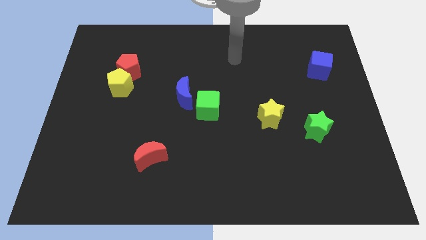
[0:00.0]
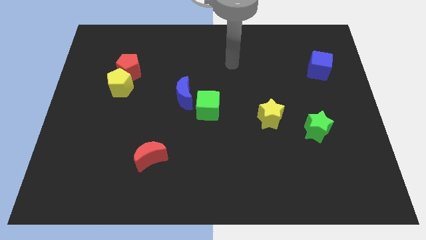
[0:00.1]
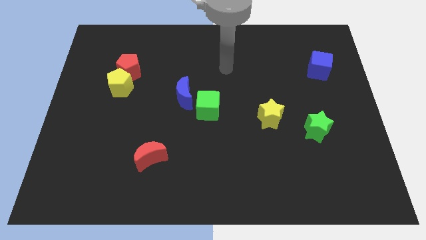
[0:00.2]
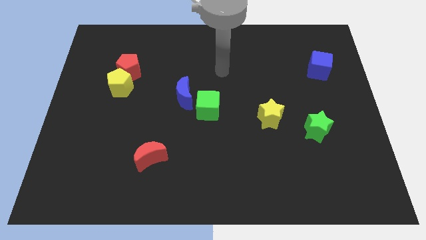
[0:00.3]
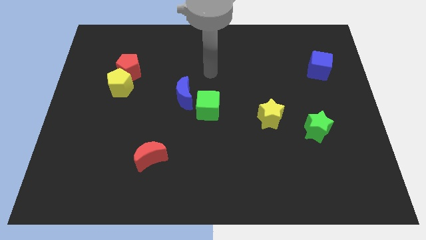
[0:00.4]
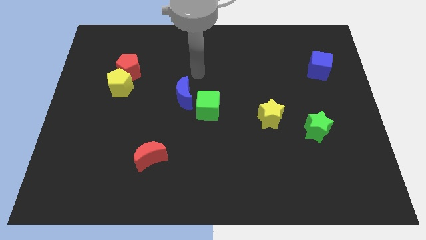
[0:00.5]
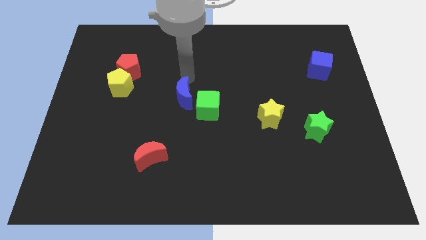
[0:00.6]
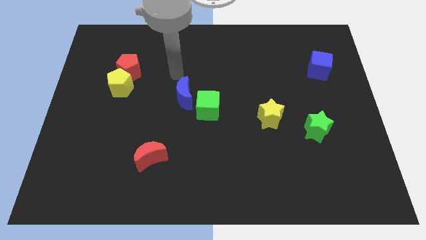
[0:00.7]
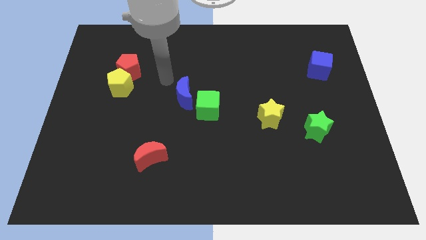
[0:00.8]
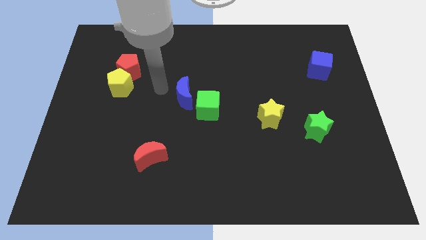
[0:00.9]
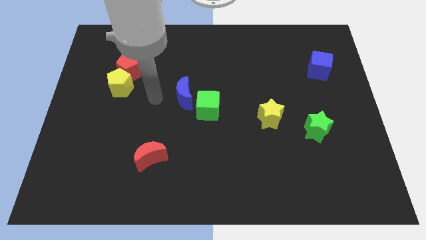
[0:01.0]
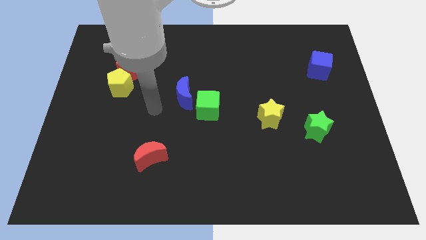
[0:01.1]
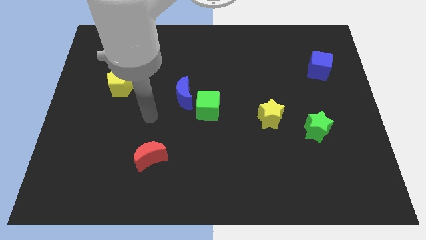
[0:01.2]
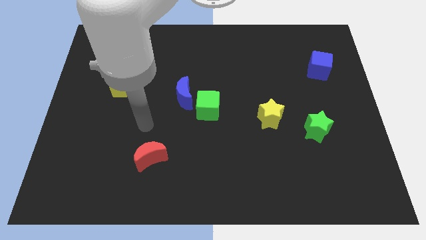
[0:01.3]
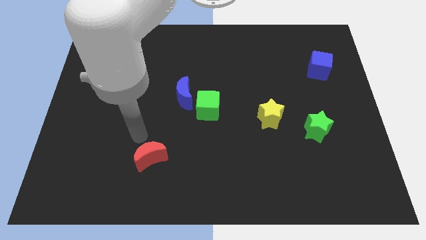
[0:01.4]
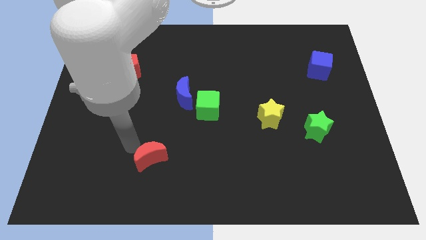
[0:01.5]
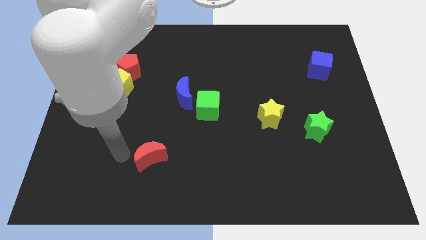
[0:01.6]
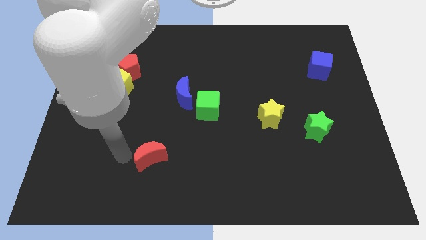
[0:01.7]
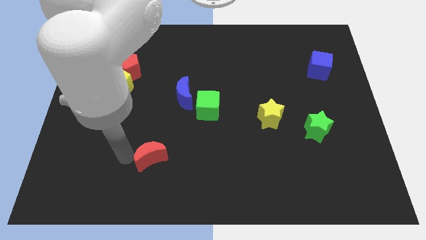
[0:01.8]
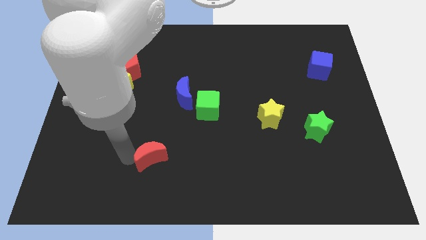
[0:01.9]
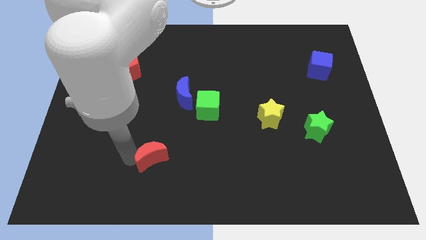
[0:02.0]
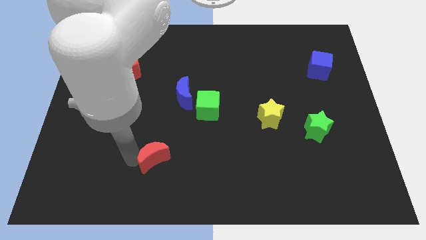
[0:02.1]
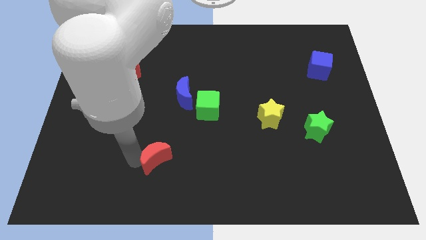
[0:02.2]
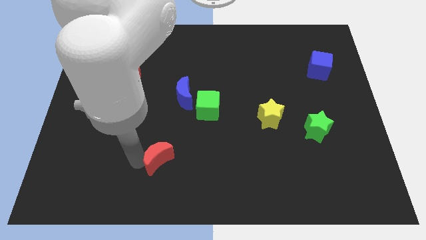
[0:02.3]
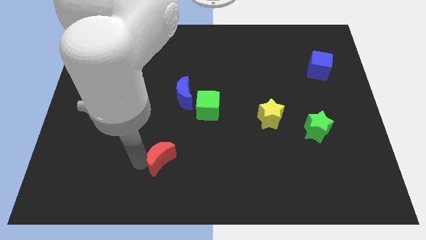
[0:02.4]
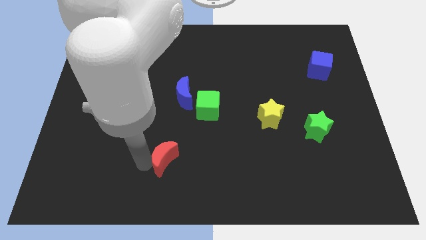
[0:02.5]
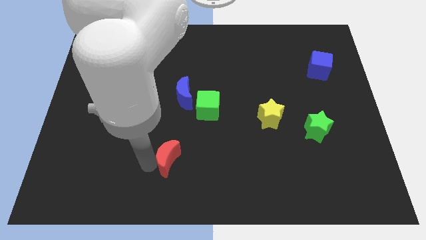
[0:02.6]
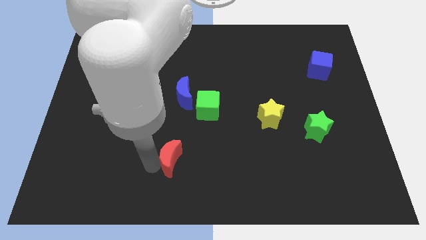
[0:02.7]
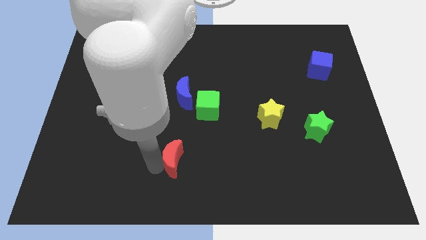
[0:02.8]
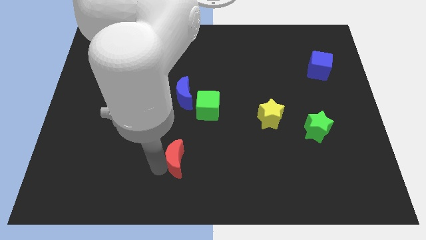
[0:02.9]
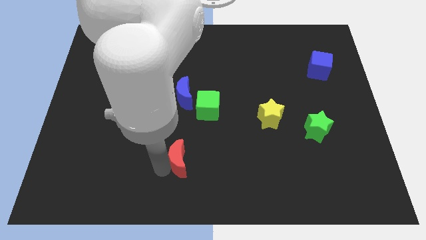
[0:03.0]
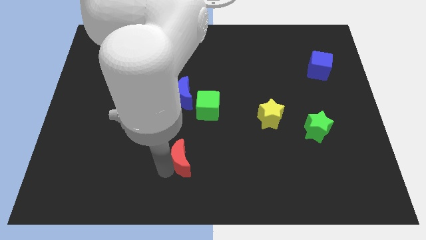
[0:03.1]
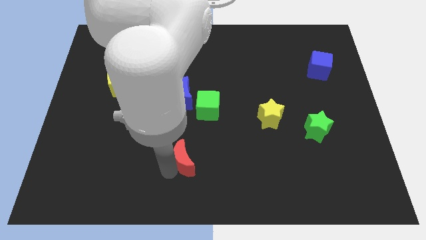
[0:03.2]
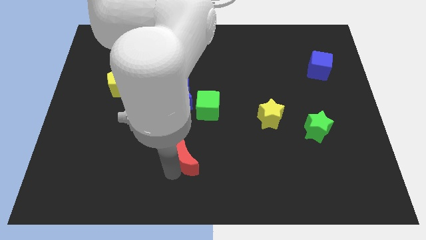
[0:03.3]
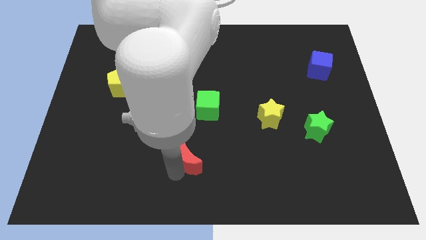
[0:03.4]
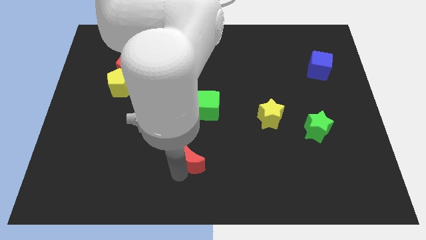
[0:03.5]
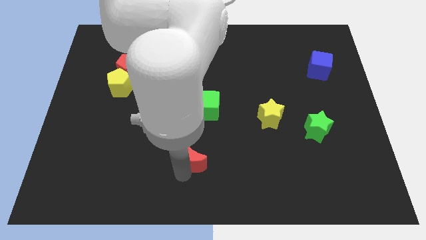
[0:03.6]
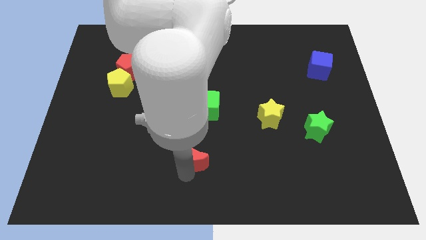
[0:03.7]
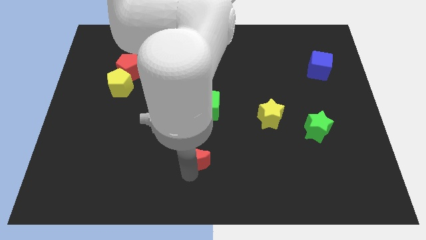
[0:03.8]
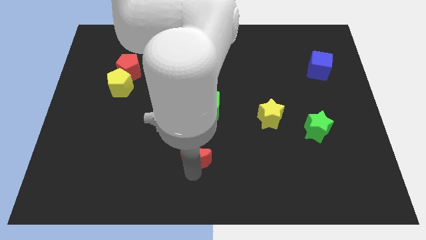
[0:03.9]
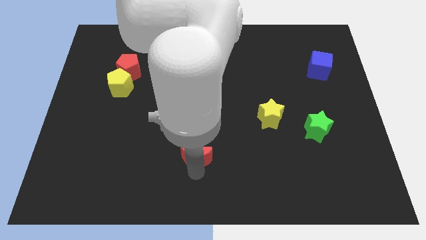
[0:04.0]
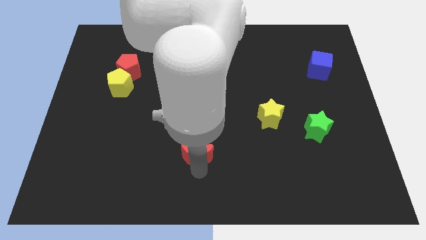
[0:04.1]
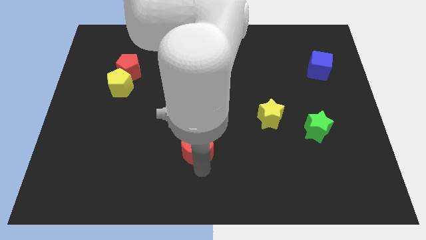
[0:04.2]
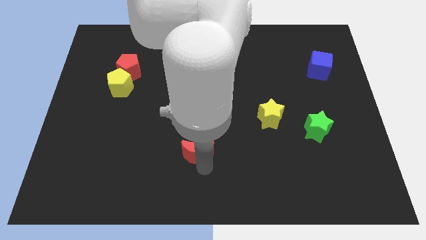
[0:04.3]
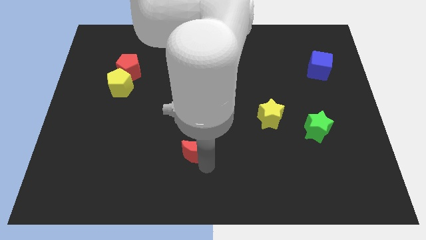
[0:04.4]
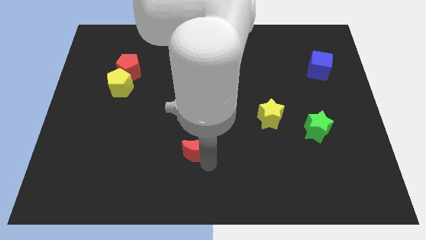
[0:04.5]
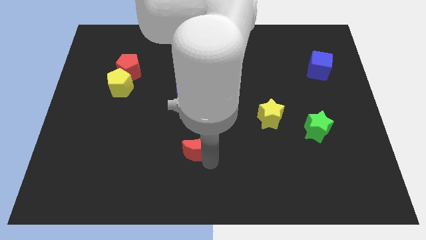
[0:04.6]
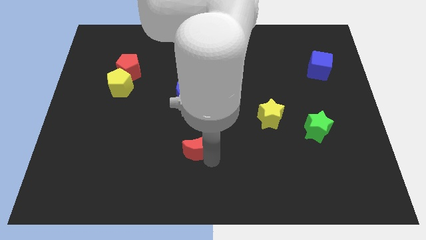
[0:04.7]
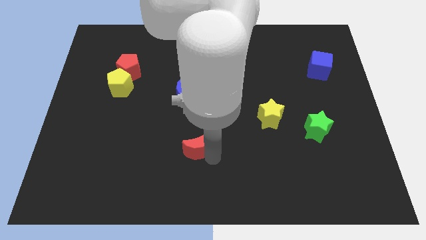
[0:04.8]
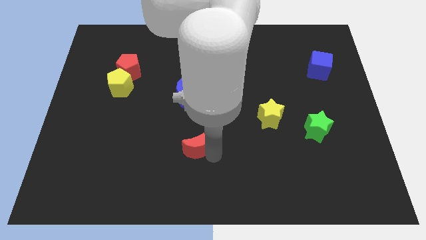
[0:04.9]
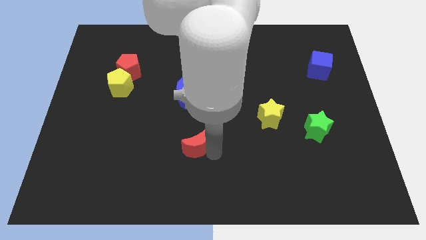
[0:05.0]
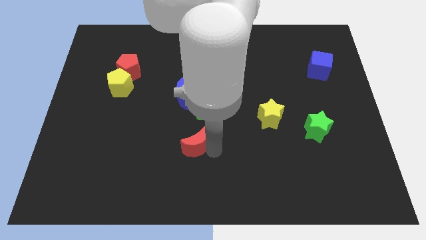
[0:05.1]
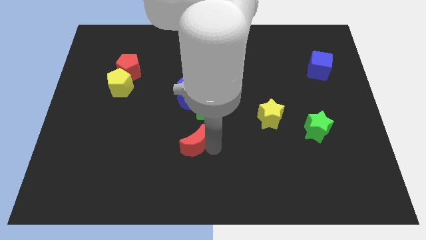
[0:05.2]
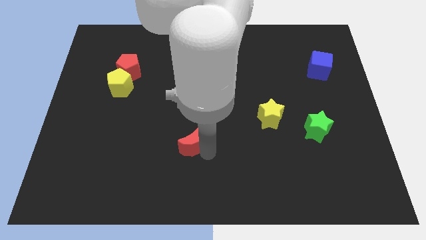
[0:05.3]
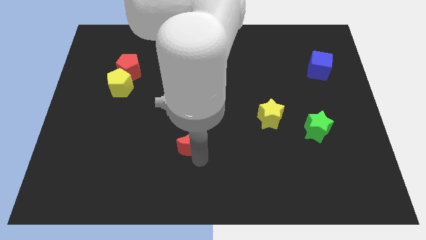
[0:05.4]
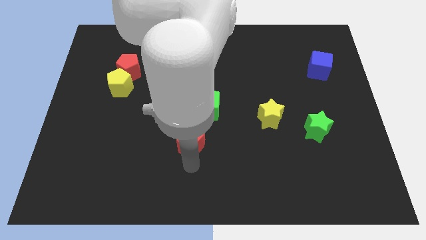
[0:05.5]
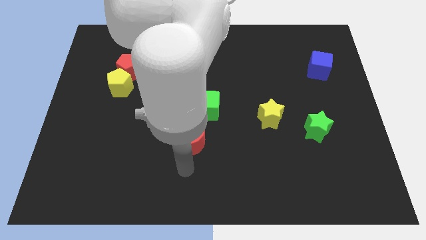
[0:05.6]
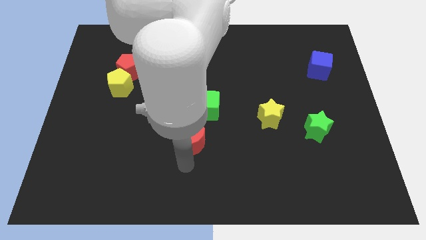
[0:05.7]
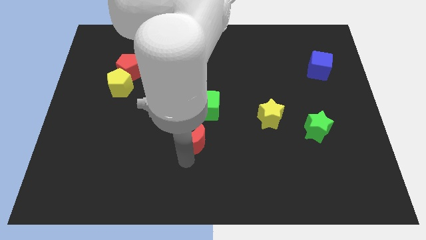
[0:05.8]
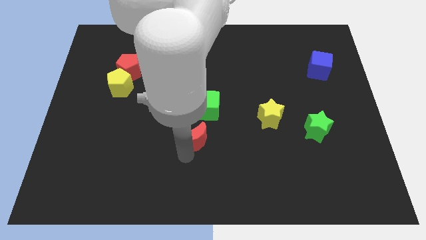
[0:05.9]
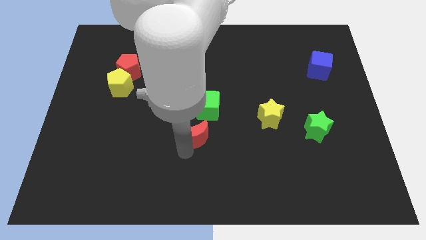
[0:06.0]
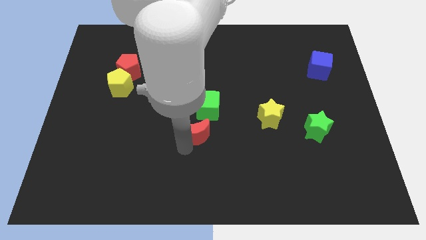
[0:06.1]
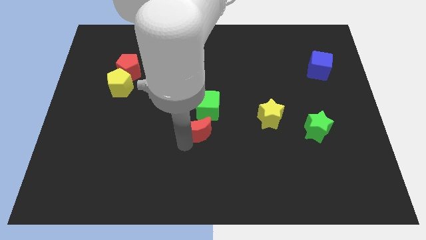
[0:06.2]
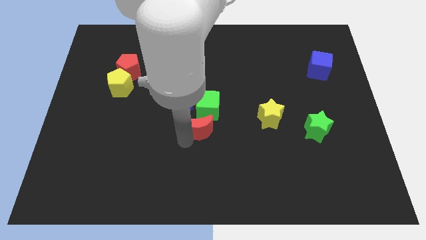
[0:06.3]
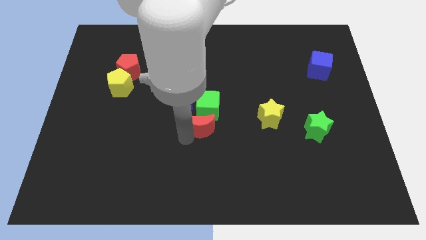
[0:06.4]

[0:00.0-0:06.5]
put the red moon to the green cube

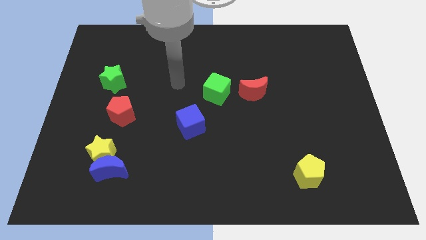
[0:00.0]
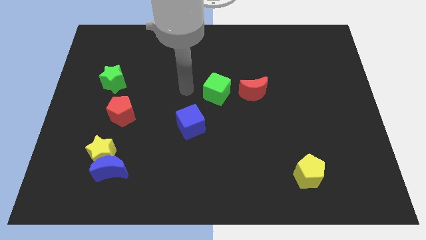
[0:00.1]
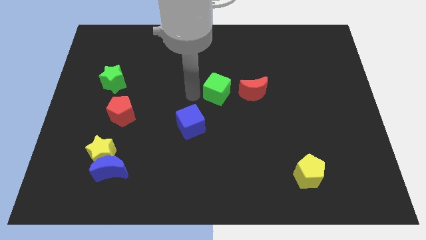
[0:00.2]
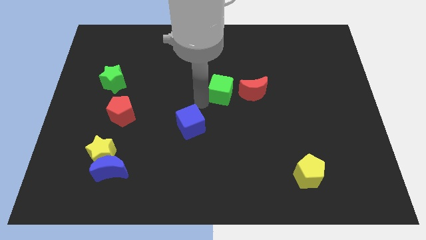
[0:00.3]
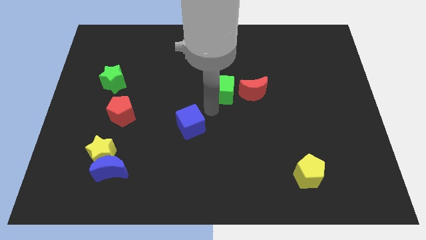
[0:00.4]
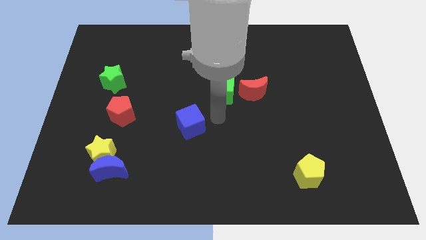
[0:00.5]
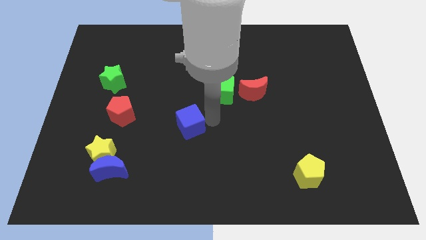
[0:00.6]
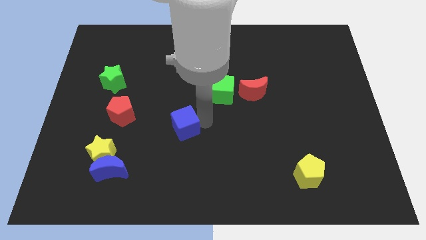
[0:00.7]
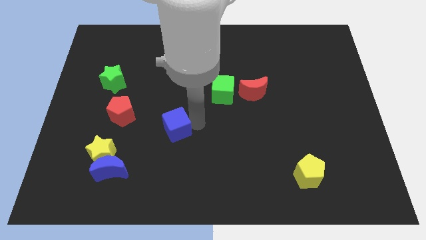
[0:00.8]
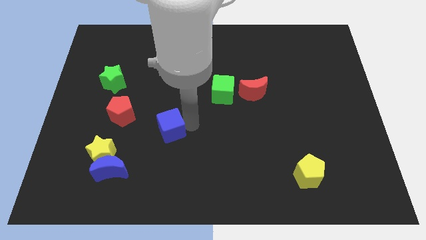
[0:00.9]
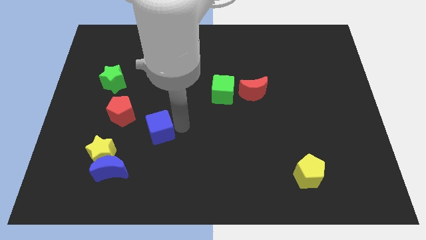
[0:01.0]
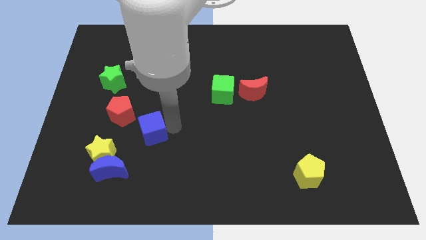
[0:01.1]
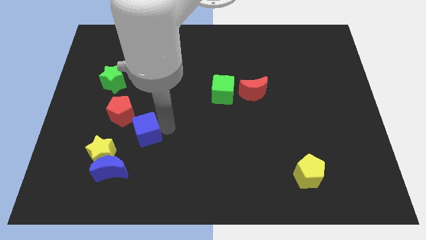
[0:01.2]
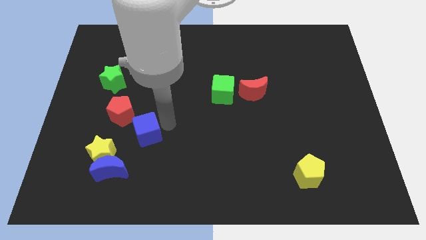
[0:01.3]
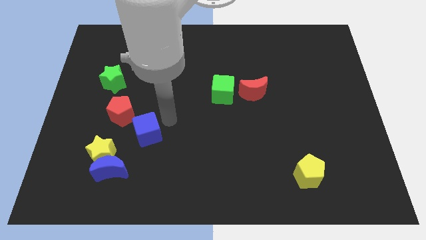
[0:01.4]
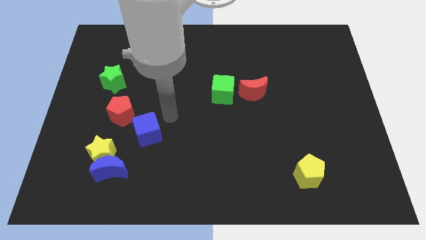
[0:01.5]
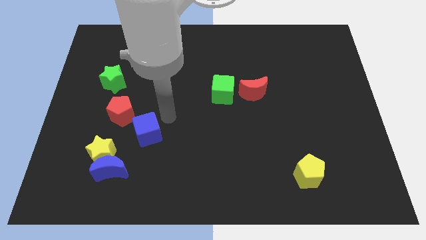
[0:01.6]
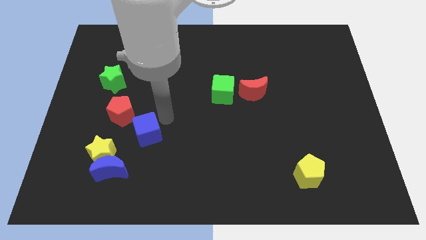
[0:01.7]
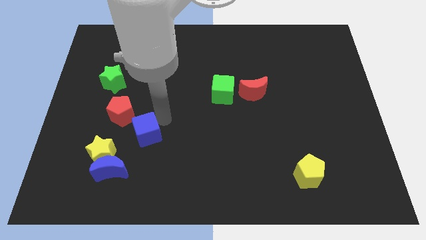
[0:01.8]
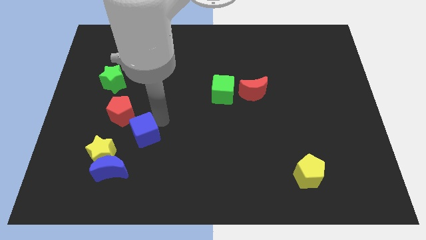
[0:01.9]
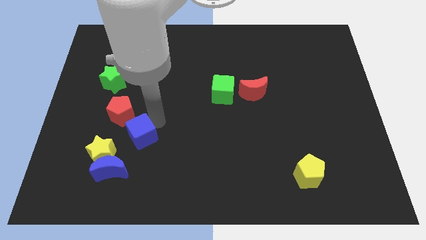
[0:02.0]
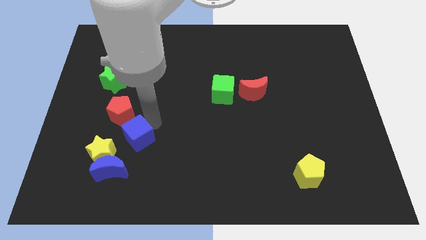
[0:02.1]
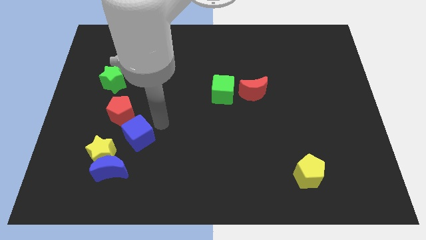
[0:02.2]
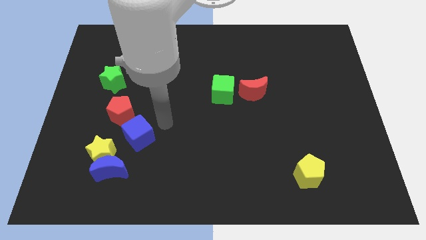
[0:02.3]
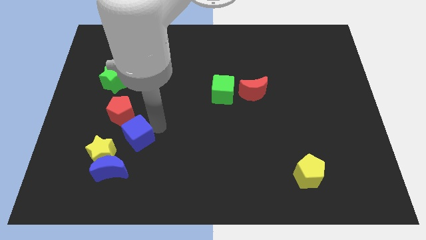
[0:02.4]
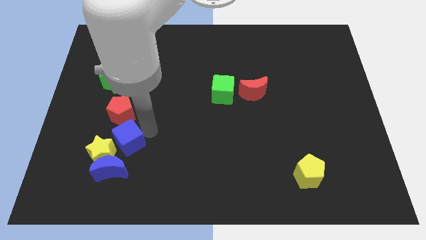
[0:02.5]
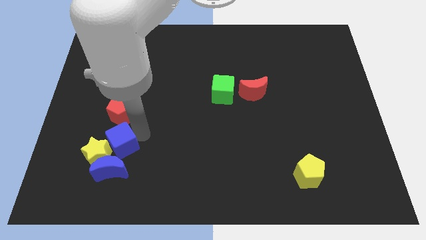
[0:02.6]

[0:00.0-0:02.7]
move the blue cube to the yellow star
